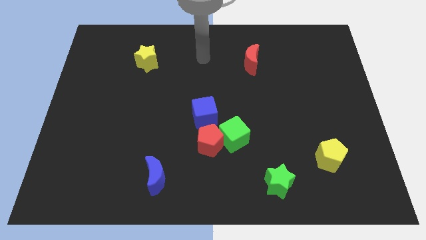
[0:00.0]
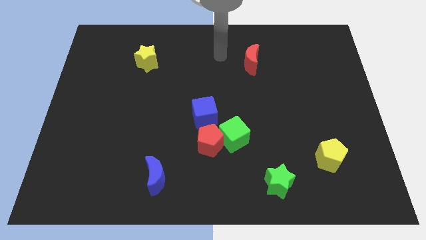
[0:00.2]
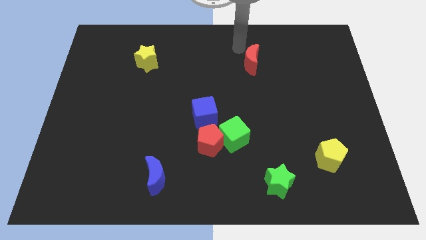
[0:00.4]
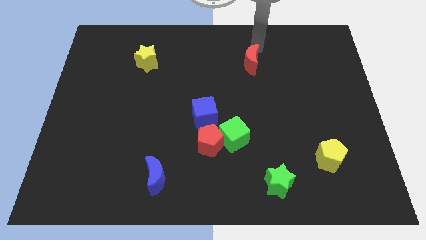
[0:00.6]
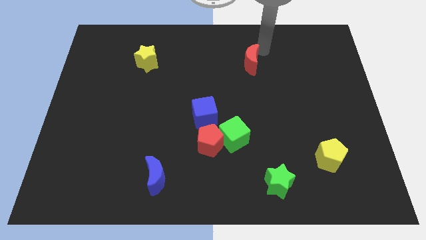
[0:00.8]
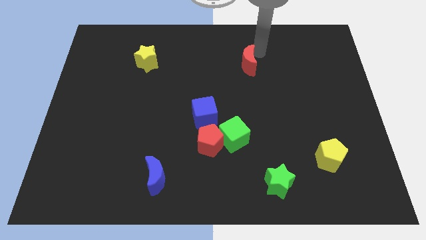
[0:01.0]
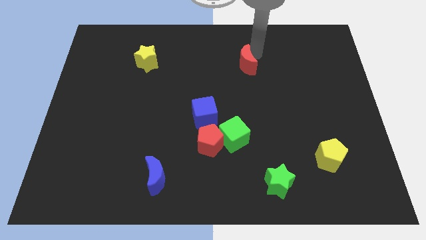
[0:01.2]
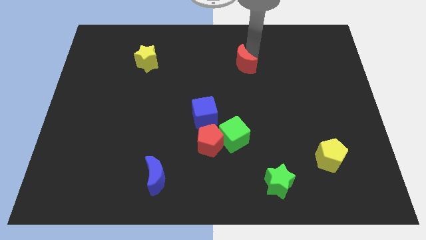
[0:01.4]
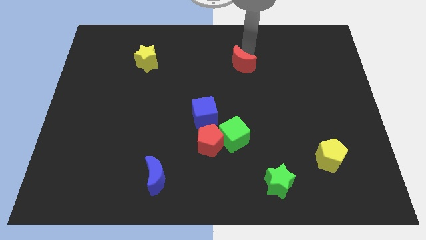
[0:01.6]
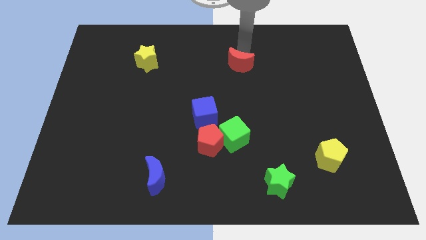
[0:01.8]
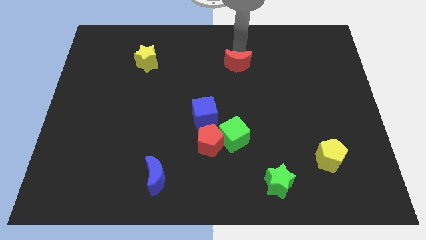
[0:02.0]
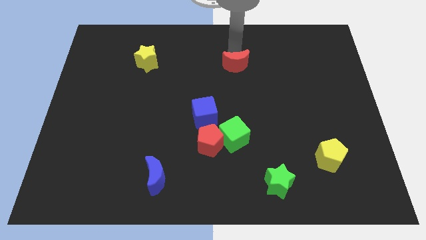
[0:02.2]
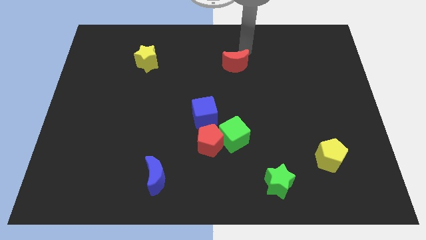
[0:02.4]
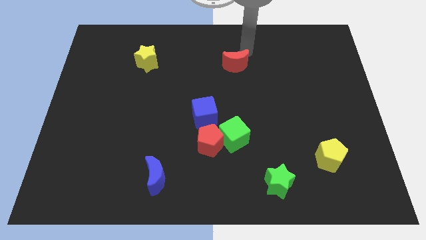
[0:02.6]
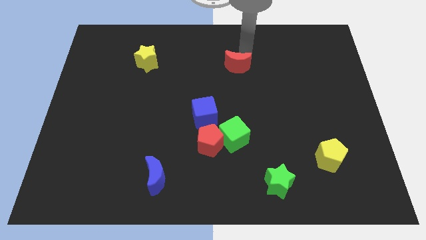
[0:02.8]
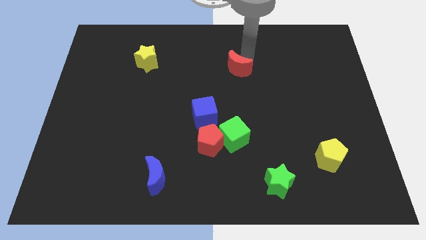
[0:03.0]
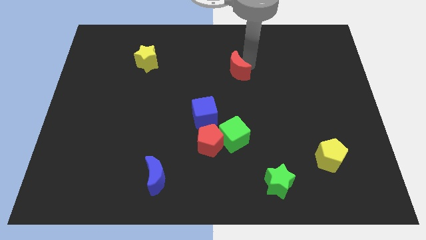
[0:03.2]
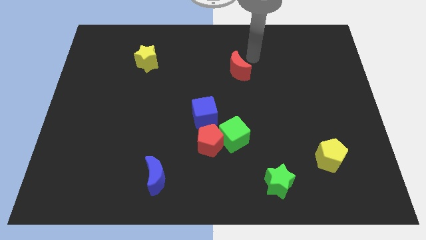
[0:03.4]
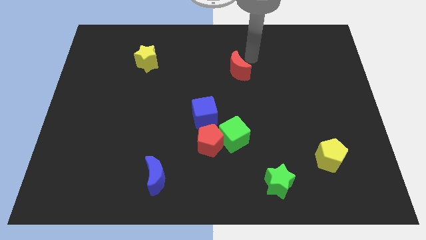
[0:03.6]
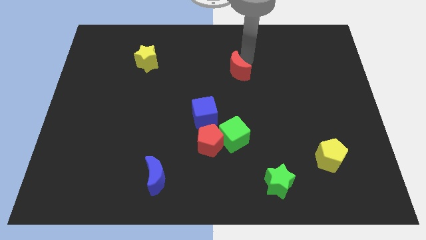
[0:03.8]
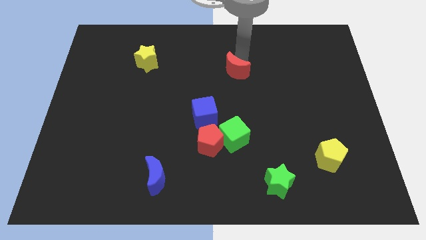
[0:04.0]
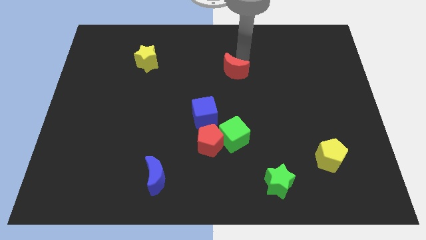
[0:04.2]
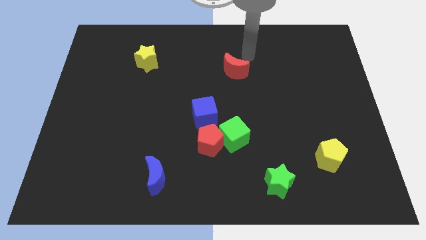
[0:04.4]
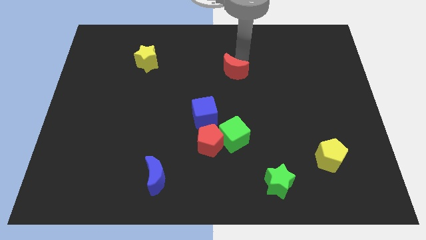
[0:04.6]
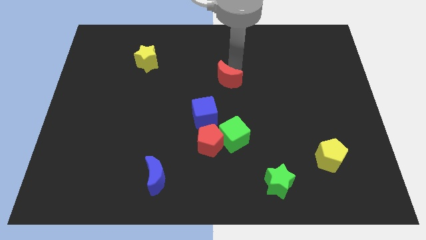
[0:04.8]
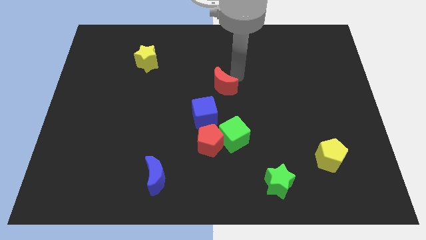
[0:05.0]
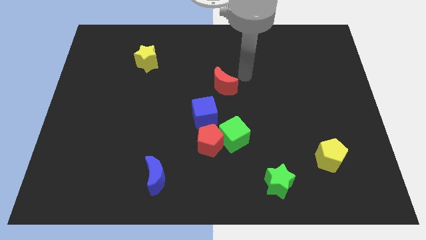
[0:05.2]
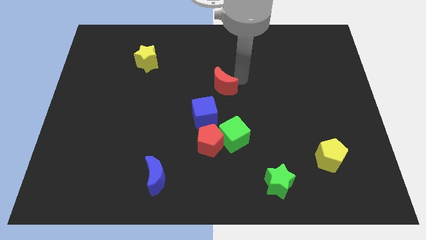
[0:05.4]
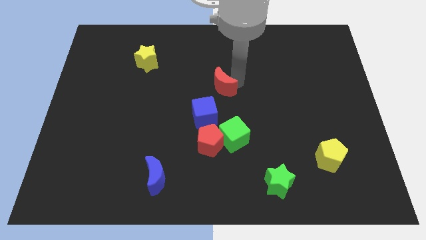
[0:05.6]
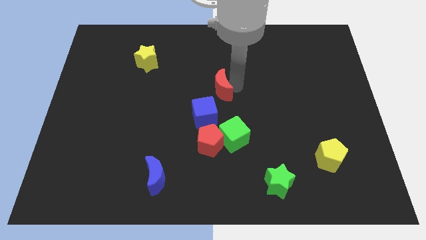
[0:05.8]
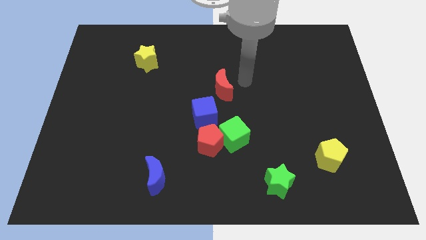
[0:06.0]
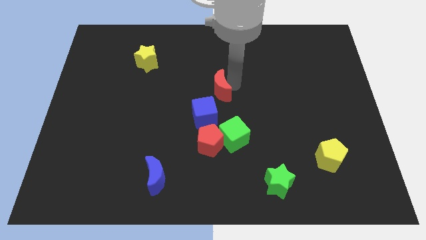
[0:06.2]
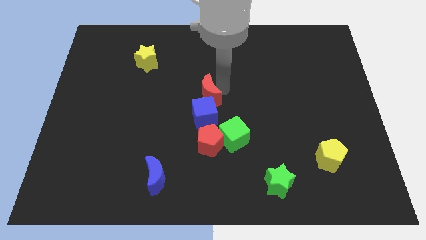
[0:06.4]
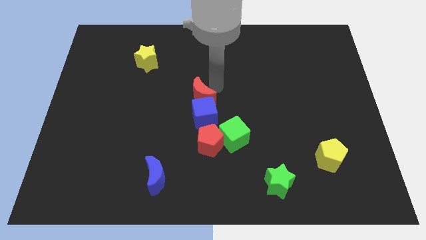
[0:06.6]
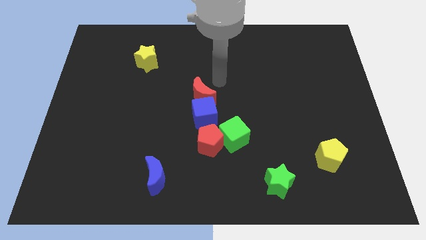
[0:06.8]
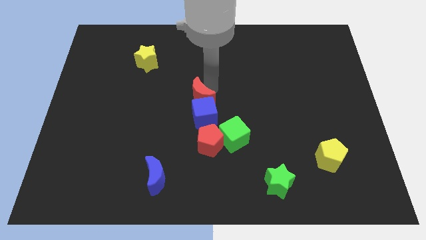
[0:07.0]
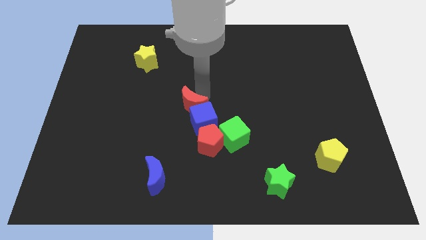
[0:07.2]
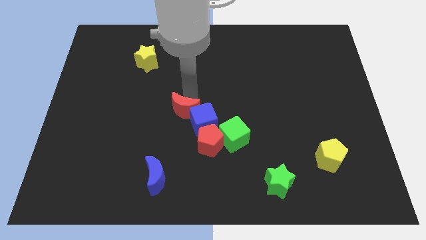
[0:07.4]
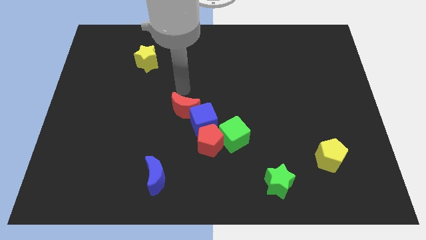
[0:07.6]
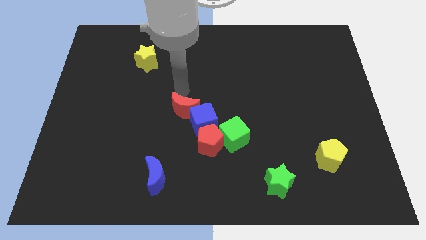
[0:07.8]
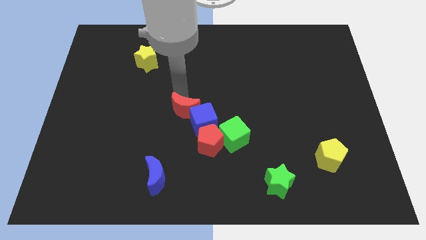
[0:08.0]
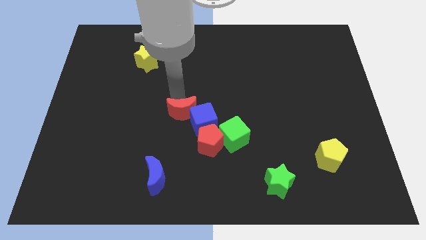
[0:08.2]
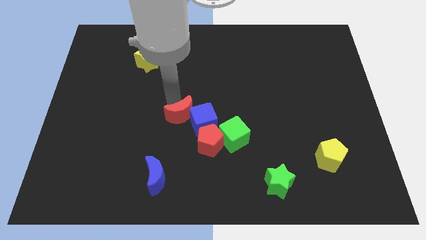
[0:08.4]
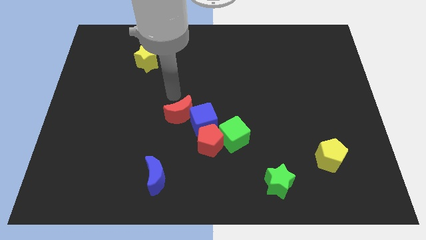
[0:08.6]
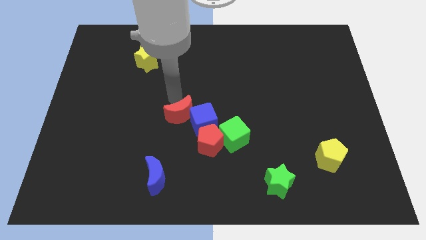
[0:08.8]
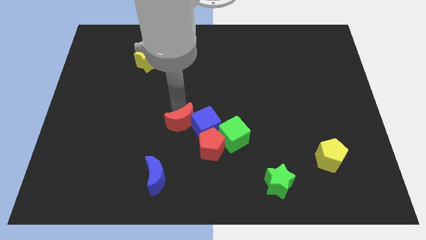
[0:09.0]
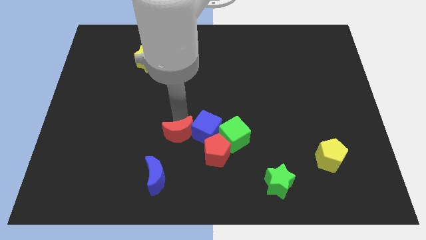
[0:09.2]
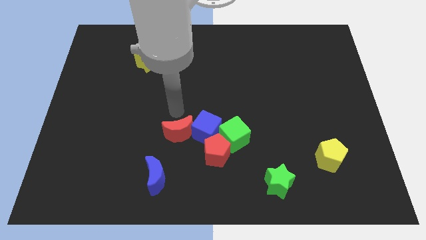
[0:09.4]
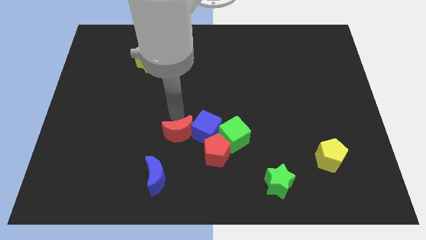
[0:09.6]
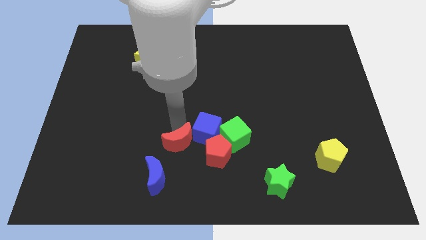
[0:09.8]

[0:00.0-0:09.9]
slide the red moon diagonally up and to the right of the blue moon

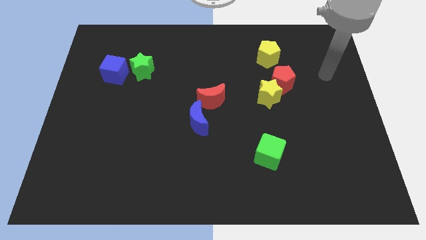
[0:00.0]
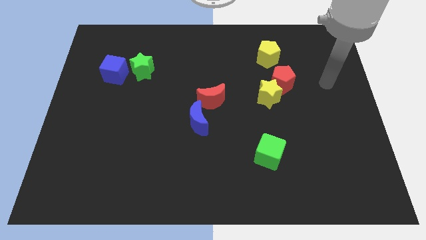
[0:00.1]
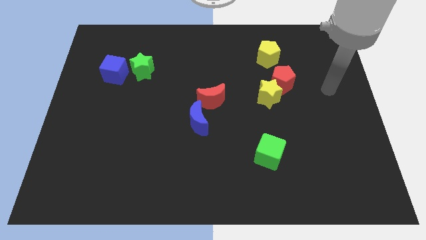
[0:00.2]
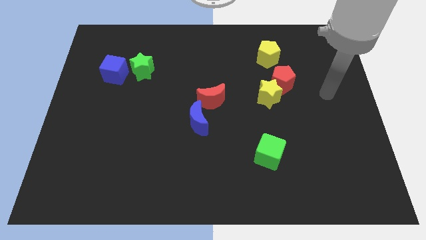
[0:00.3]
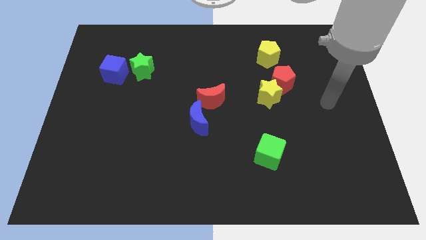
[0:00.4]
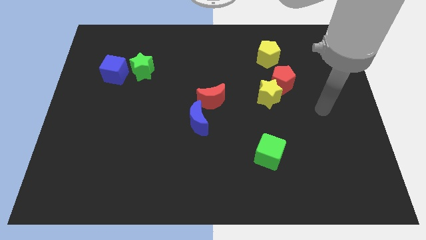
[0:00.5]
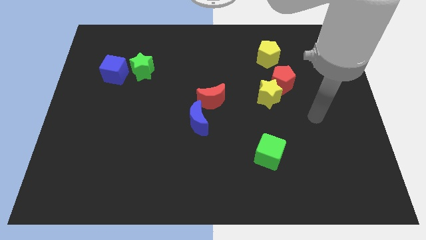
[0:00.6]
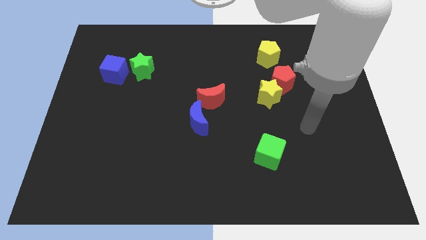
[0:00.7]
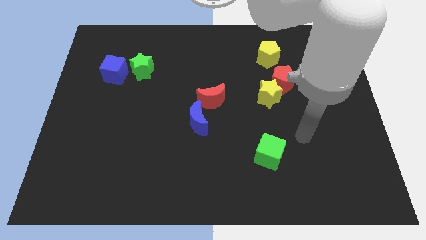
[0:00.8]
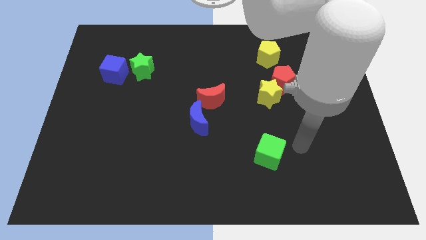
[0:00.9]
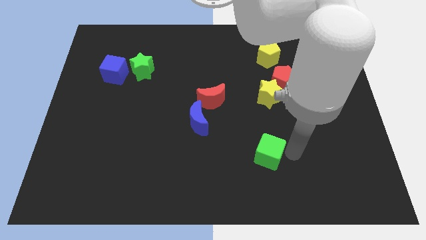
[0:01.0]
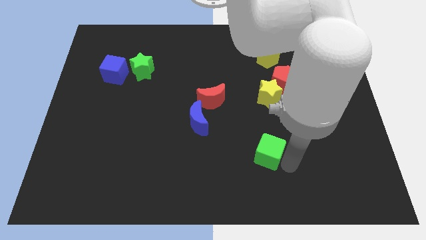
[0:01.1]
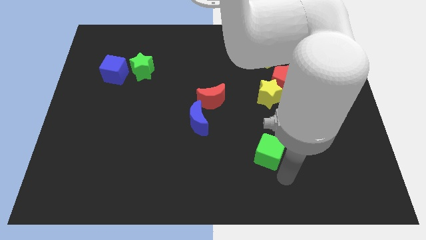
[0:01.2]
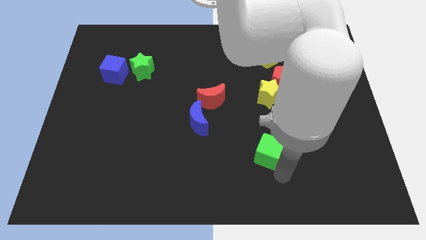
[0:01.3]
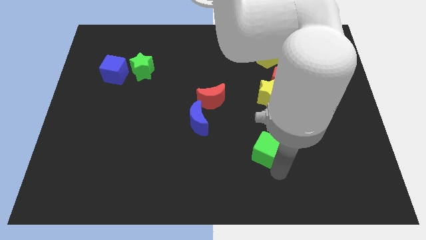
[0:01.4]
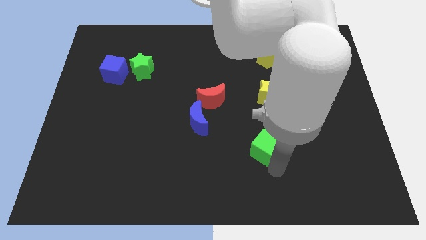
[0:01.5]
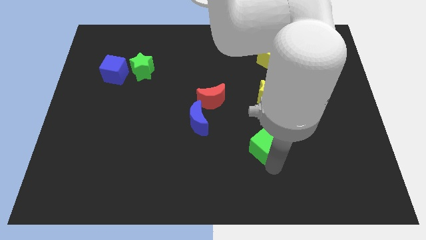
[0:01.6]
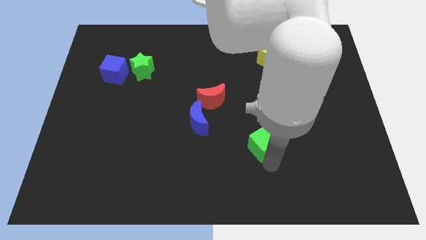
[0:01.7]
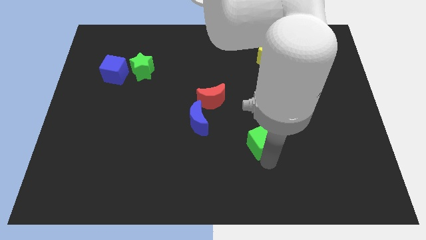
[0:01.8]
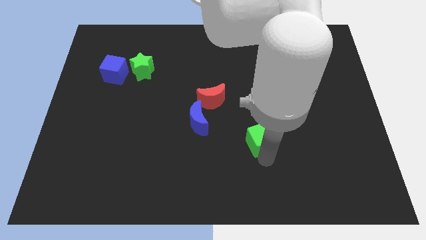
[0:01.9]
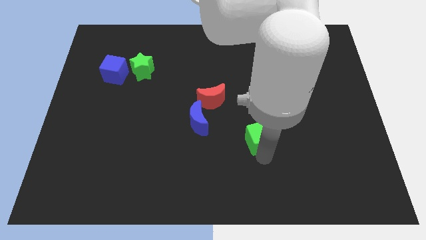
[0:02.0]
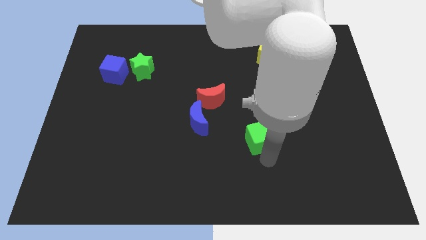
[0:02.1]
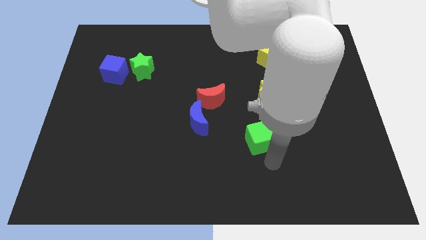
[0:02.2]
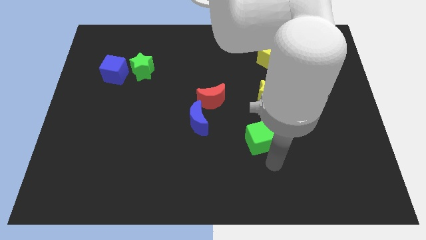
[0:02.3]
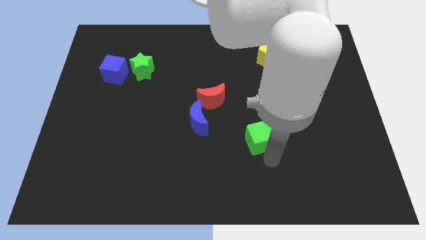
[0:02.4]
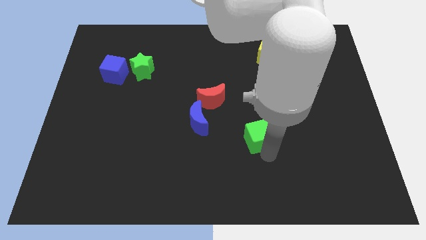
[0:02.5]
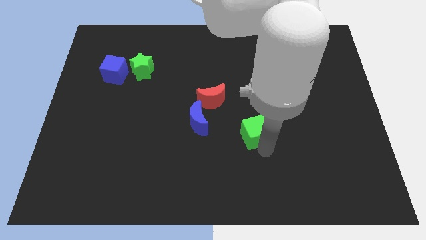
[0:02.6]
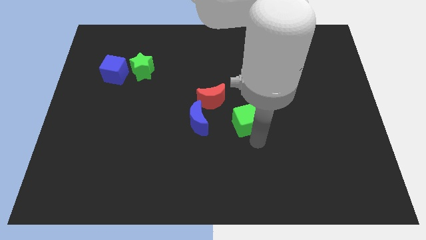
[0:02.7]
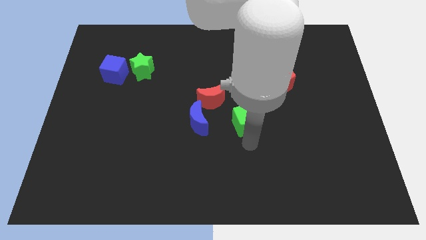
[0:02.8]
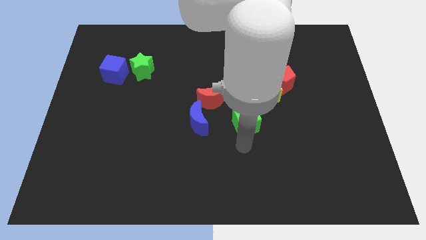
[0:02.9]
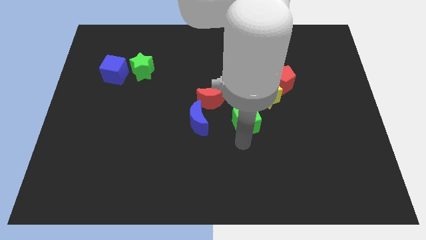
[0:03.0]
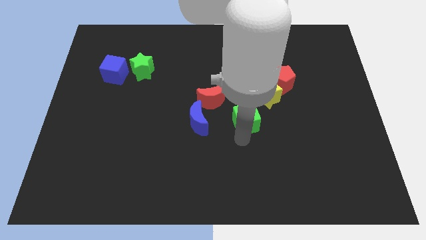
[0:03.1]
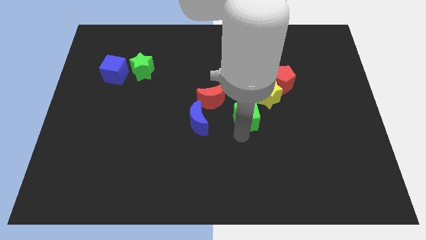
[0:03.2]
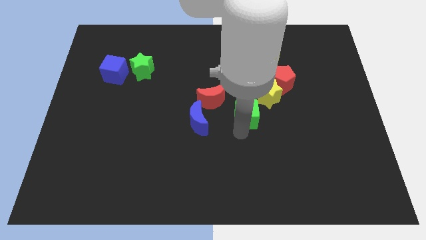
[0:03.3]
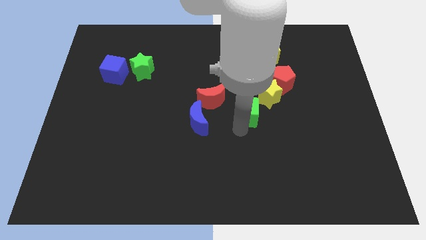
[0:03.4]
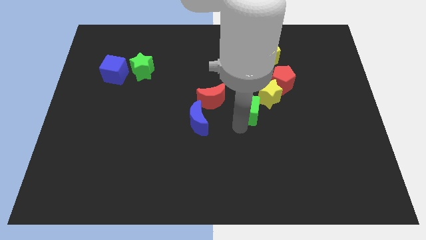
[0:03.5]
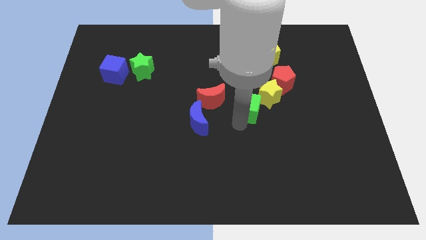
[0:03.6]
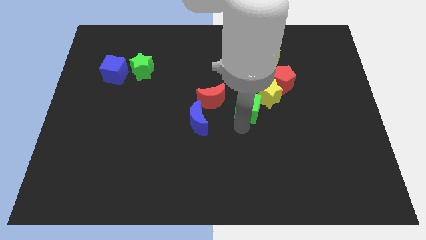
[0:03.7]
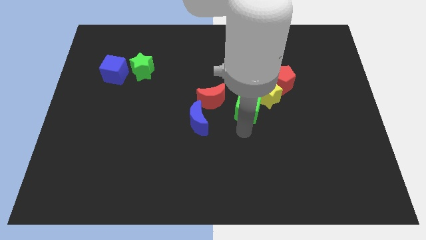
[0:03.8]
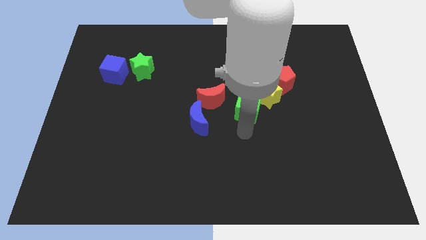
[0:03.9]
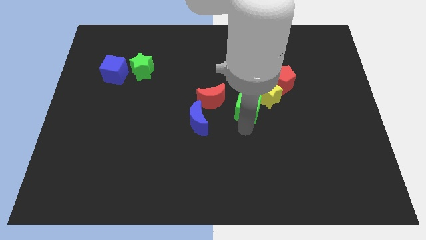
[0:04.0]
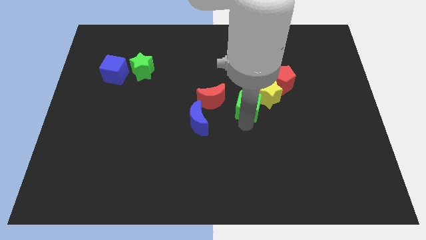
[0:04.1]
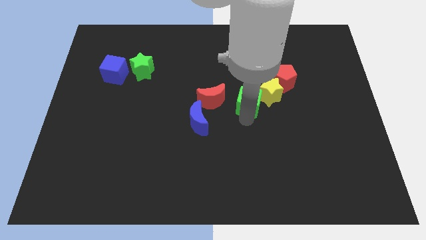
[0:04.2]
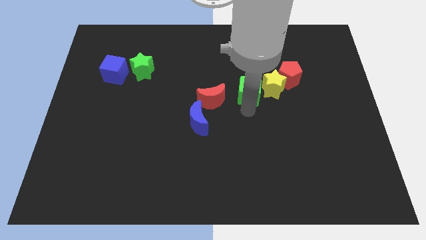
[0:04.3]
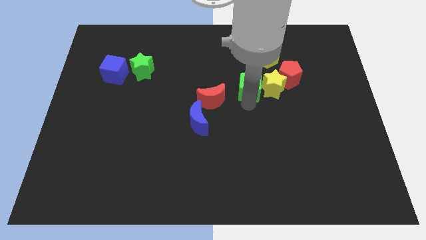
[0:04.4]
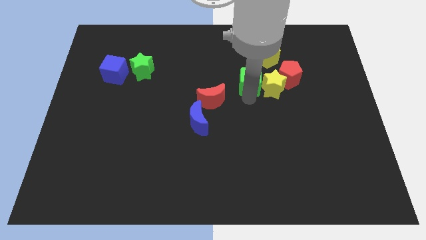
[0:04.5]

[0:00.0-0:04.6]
move the green cube to the bottom left of the yellow pentagon
